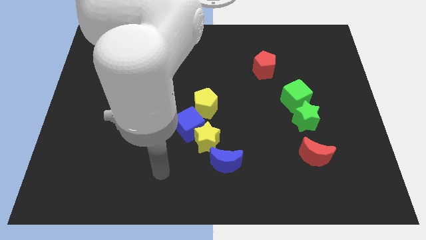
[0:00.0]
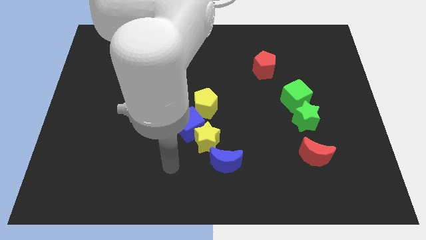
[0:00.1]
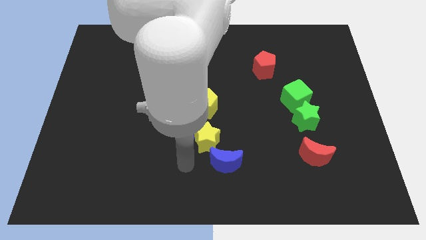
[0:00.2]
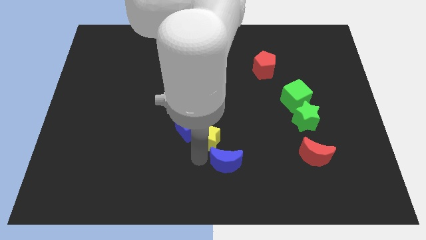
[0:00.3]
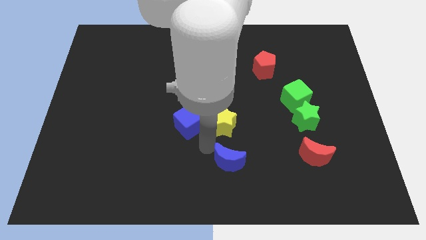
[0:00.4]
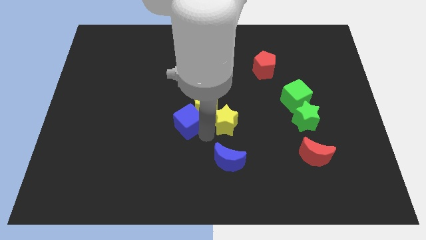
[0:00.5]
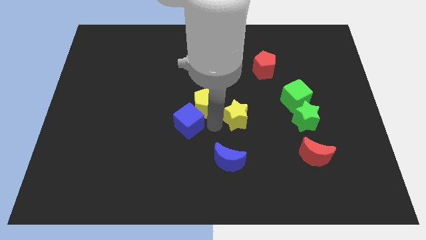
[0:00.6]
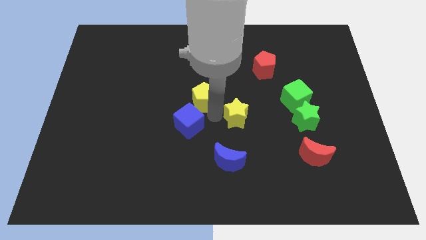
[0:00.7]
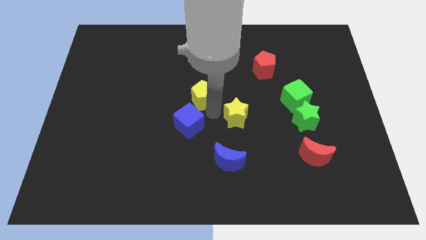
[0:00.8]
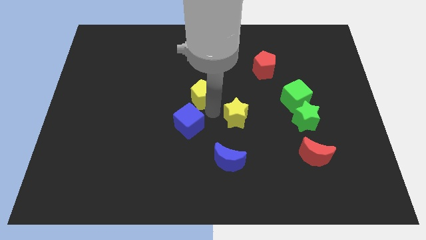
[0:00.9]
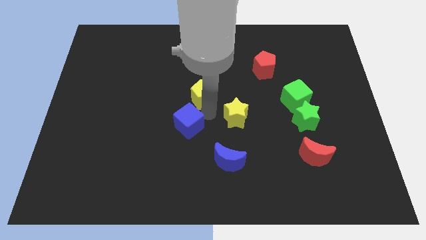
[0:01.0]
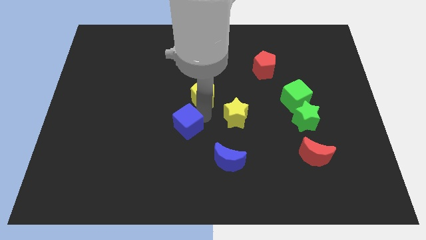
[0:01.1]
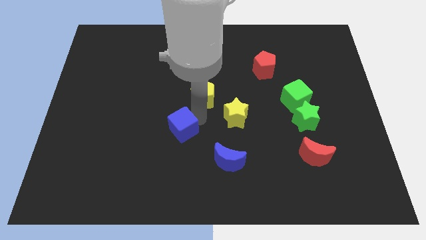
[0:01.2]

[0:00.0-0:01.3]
separate the blue cube from the yellow star and yellow pentagon

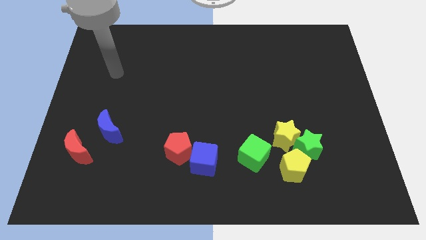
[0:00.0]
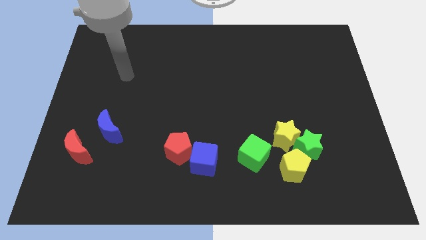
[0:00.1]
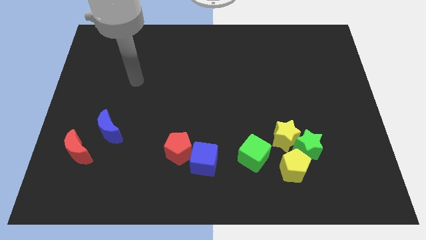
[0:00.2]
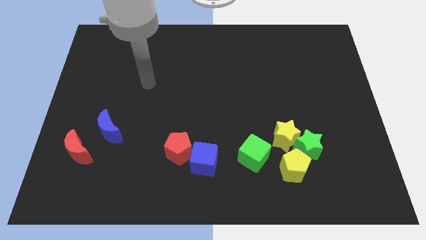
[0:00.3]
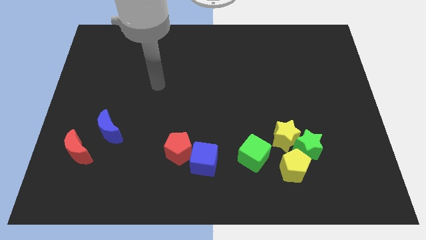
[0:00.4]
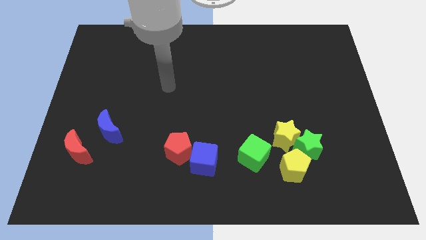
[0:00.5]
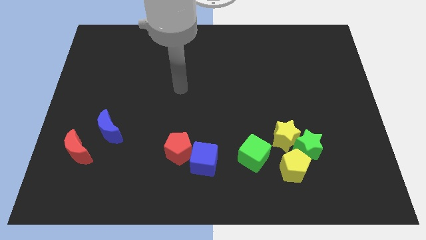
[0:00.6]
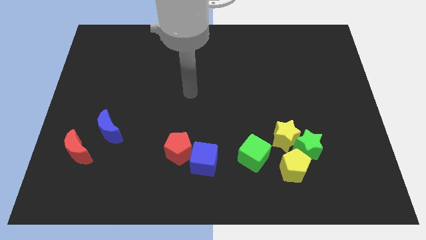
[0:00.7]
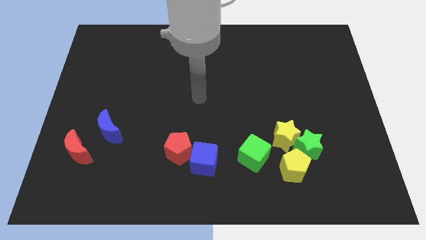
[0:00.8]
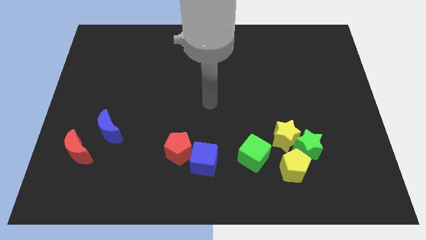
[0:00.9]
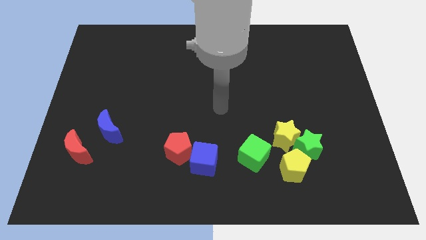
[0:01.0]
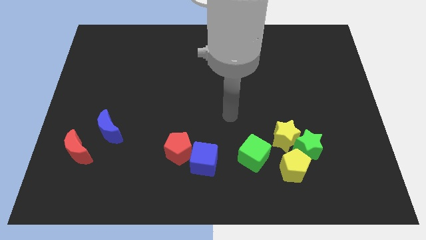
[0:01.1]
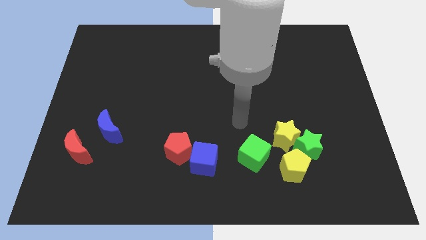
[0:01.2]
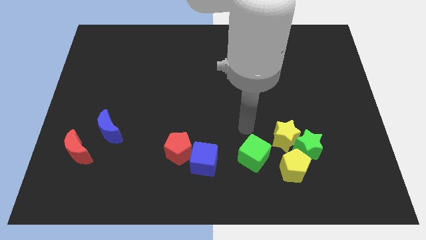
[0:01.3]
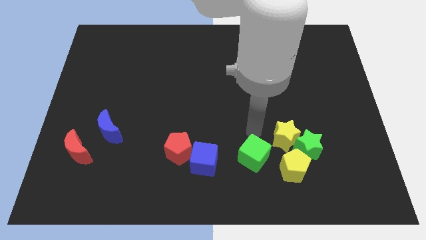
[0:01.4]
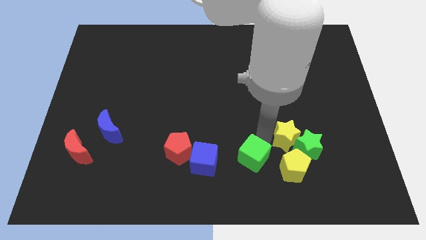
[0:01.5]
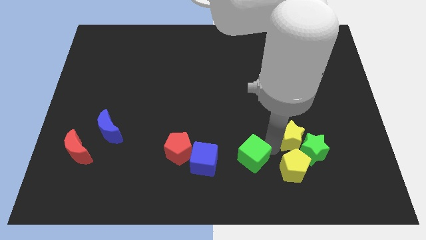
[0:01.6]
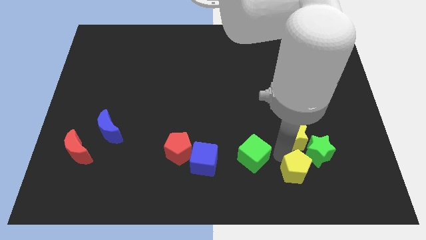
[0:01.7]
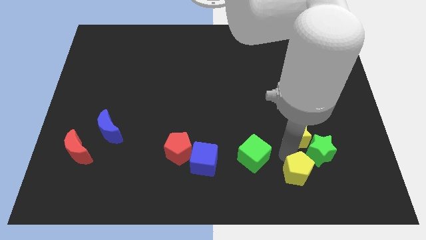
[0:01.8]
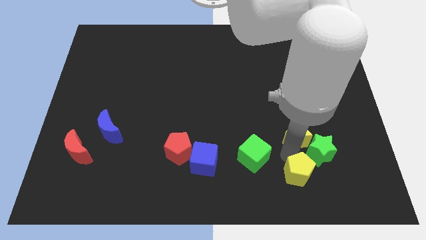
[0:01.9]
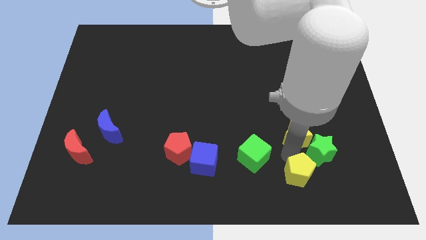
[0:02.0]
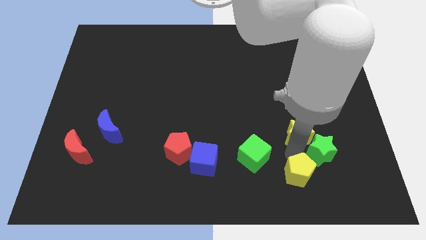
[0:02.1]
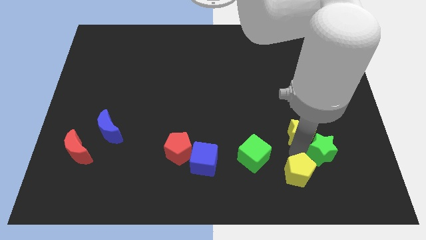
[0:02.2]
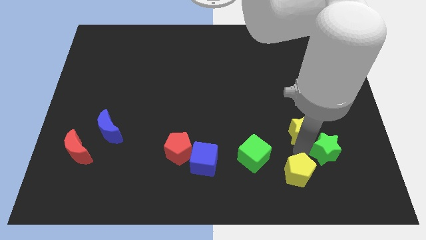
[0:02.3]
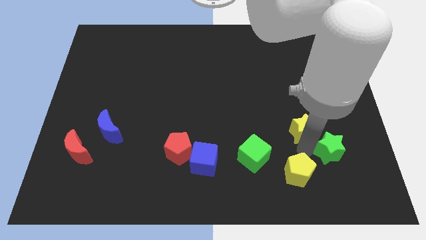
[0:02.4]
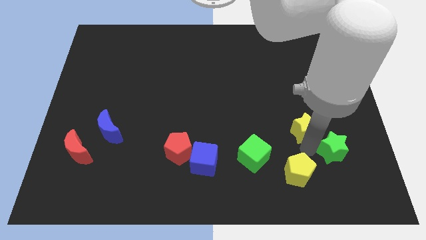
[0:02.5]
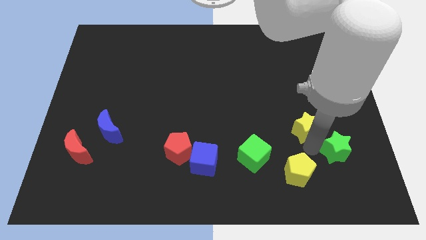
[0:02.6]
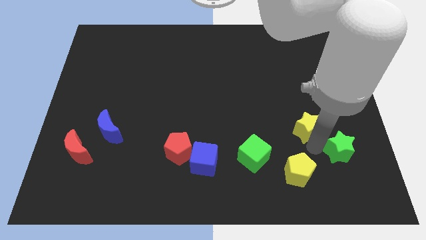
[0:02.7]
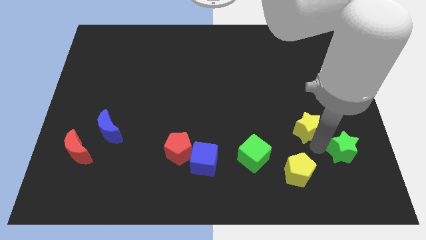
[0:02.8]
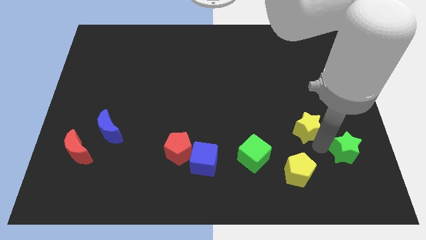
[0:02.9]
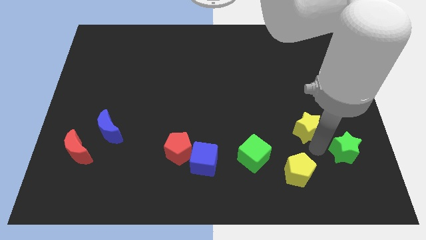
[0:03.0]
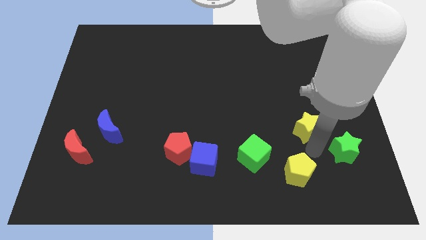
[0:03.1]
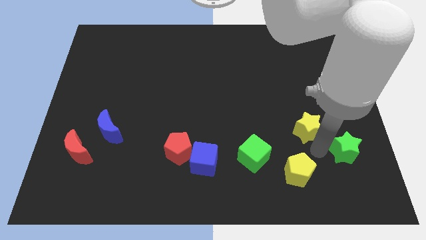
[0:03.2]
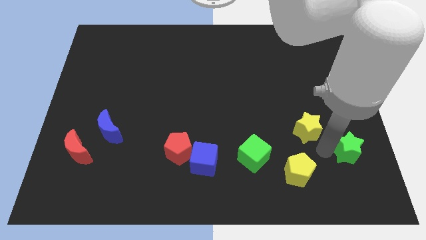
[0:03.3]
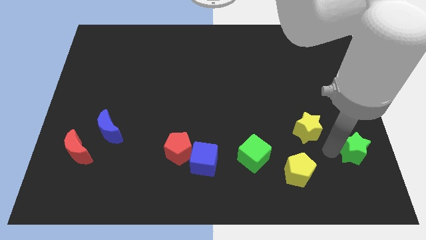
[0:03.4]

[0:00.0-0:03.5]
pull the green star apart from the yellow star and yellow pentagon

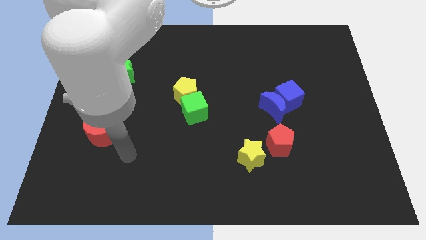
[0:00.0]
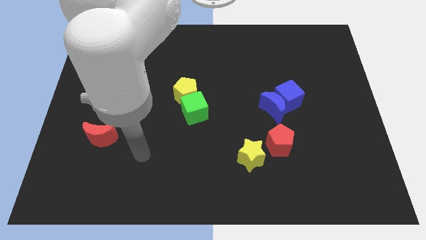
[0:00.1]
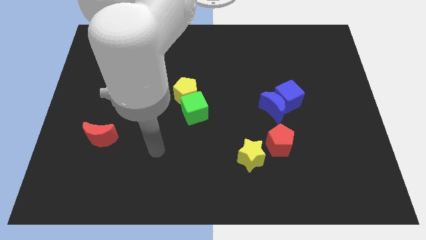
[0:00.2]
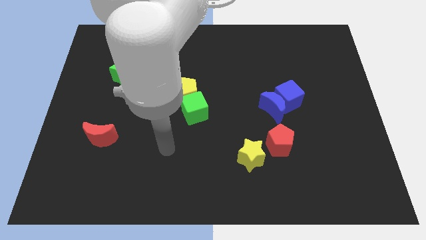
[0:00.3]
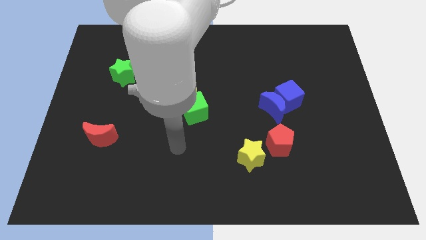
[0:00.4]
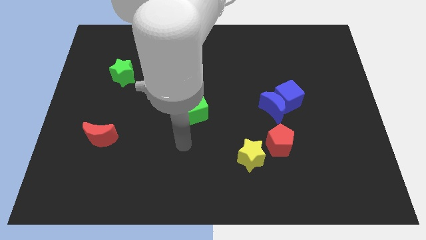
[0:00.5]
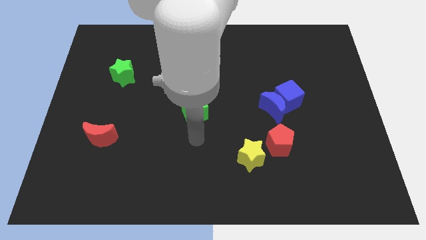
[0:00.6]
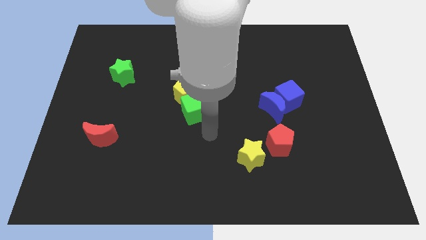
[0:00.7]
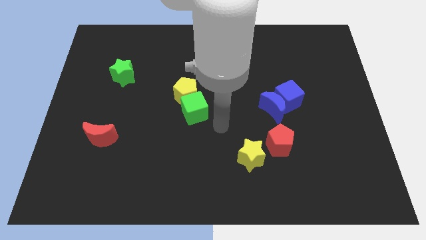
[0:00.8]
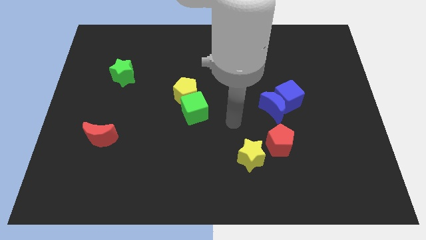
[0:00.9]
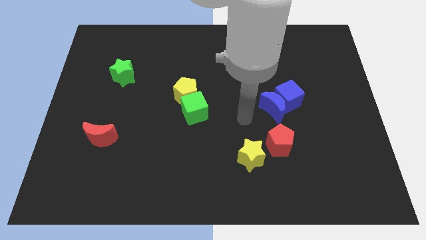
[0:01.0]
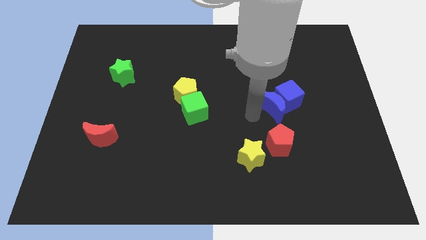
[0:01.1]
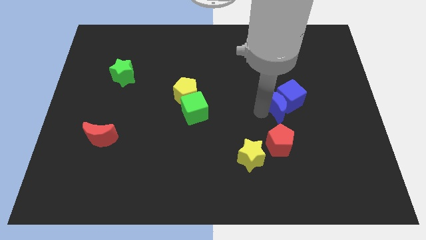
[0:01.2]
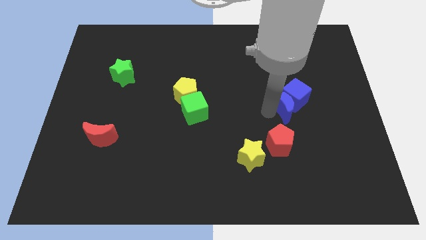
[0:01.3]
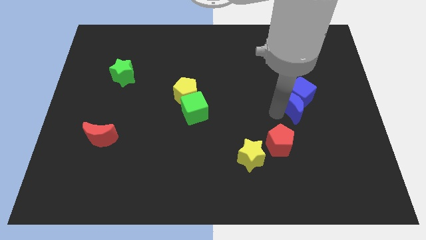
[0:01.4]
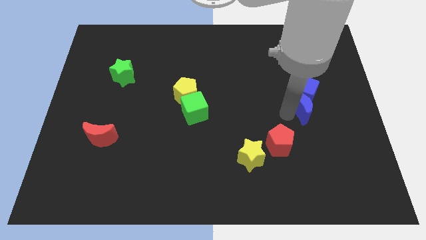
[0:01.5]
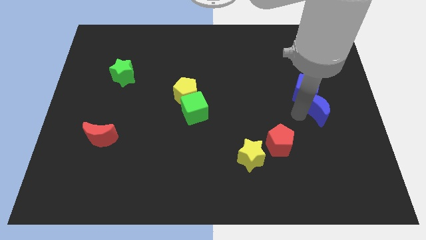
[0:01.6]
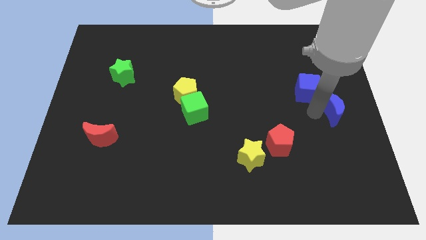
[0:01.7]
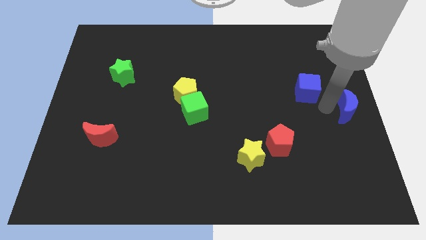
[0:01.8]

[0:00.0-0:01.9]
move the blue cube away from the blue moon

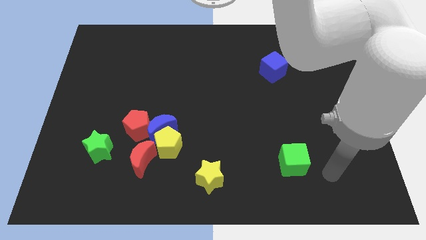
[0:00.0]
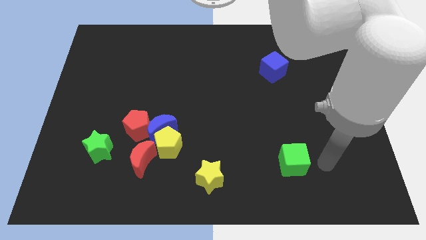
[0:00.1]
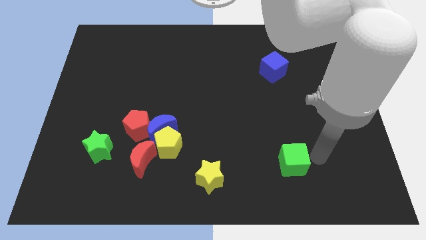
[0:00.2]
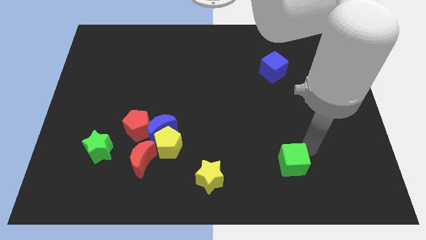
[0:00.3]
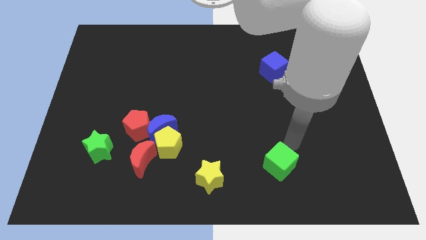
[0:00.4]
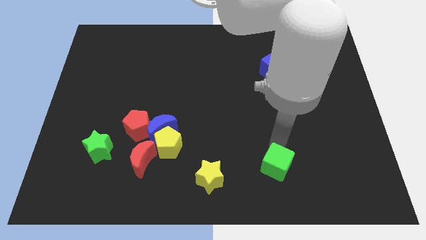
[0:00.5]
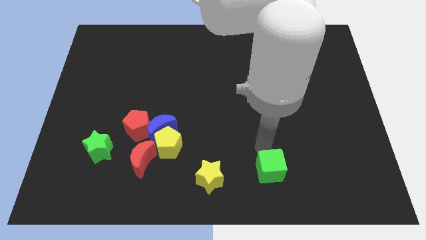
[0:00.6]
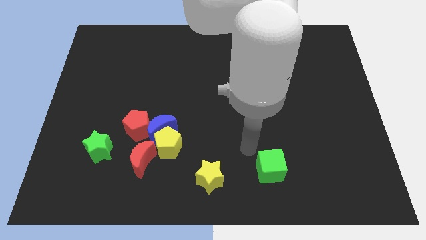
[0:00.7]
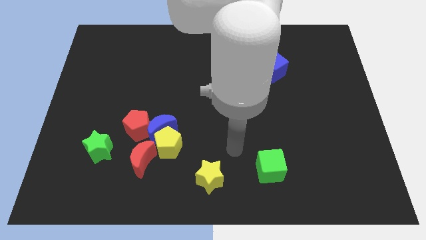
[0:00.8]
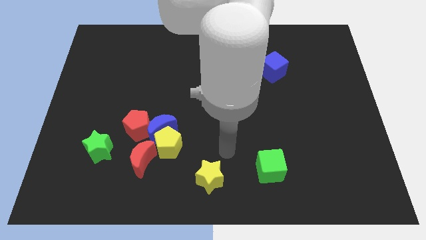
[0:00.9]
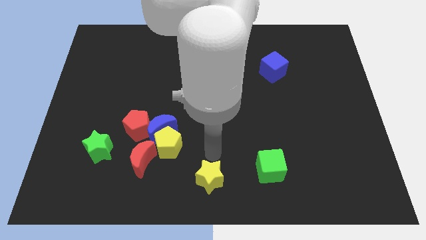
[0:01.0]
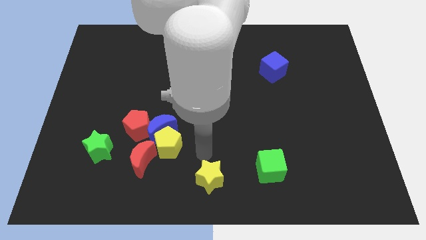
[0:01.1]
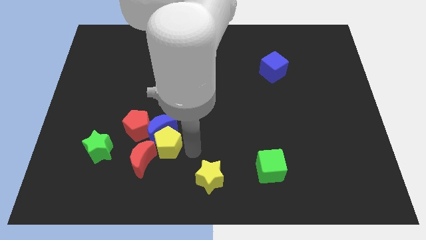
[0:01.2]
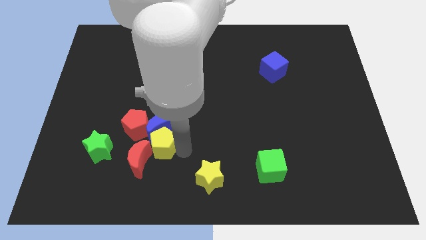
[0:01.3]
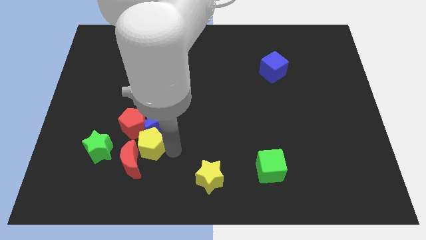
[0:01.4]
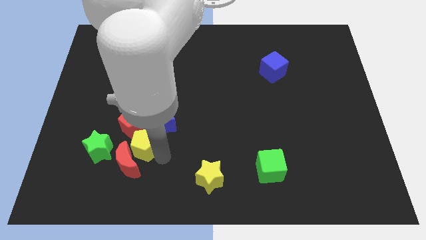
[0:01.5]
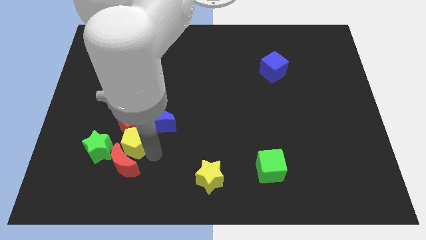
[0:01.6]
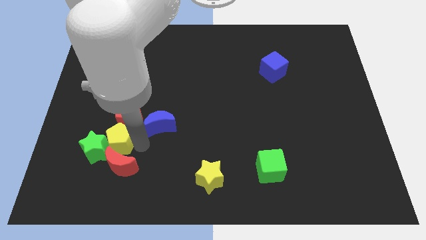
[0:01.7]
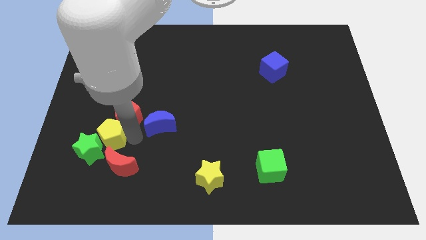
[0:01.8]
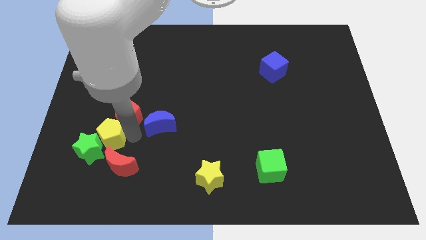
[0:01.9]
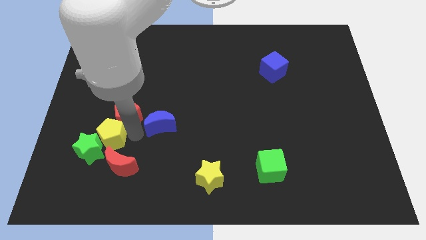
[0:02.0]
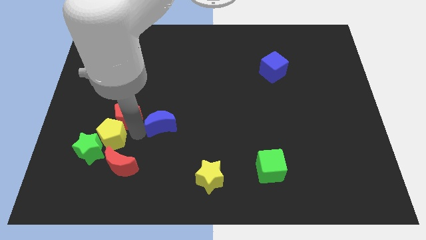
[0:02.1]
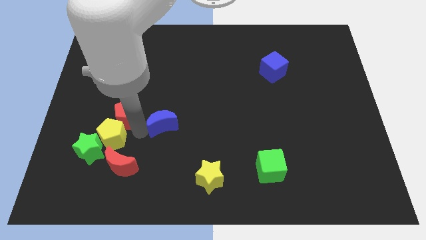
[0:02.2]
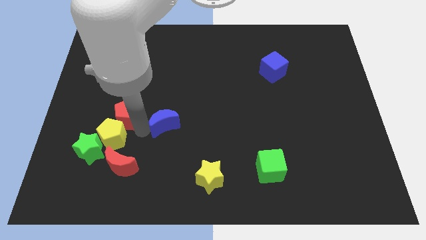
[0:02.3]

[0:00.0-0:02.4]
pull the blue moon apart from the group

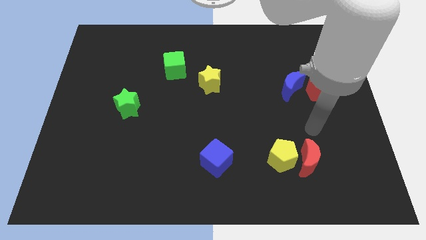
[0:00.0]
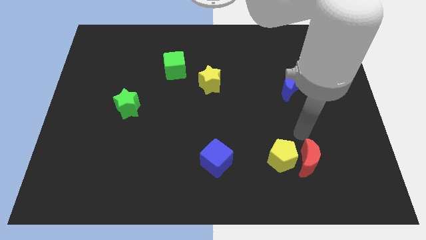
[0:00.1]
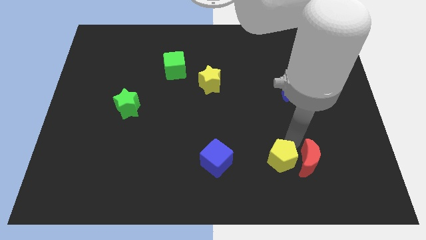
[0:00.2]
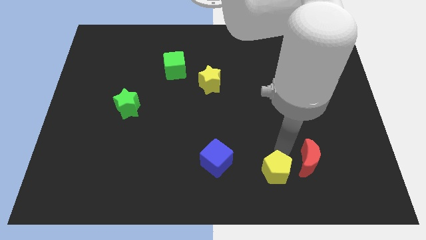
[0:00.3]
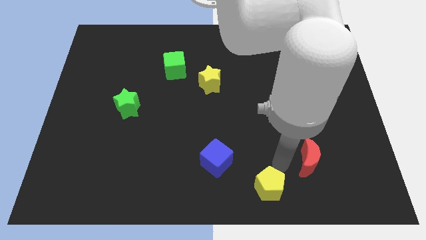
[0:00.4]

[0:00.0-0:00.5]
pull the red moon apart from the yellow pentagon
